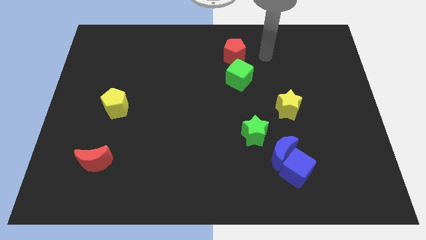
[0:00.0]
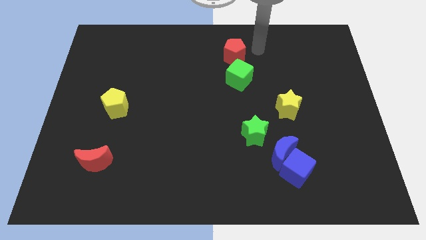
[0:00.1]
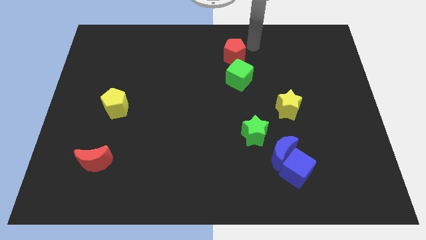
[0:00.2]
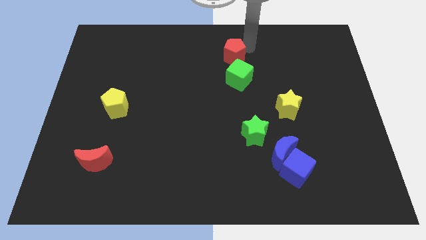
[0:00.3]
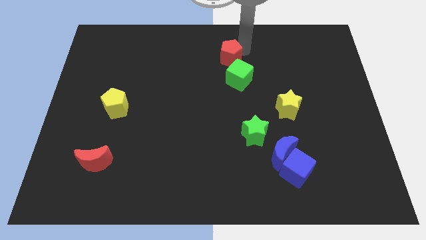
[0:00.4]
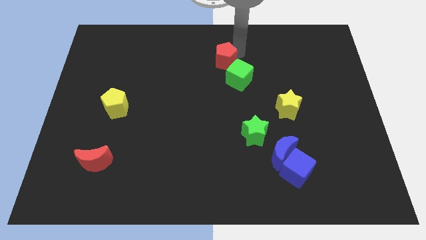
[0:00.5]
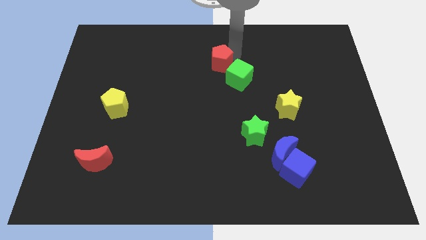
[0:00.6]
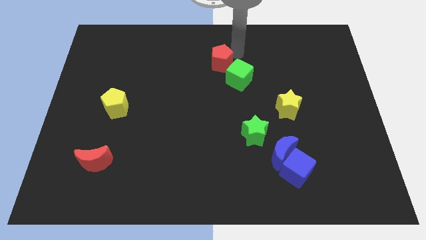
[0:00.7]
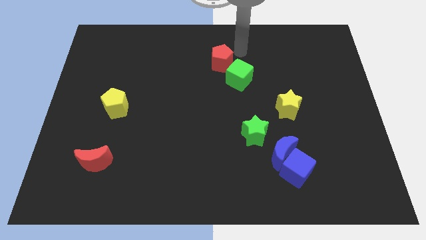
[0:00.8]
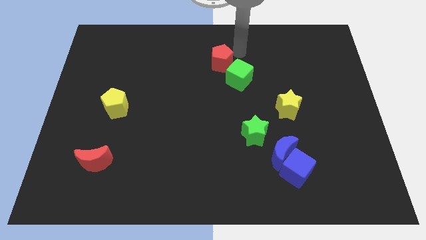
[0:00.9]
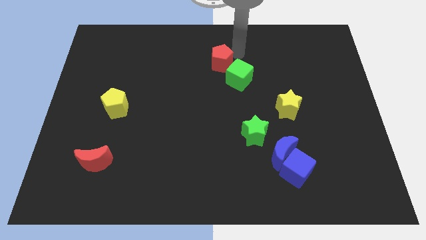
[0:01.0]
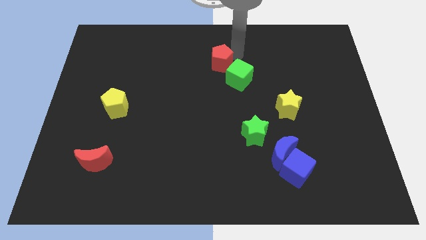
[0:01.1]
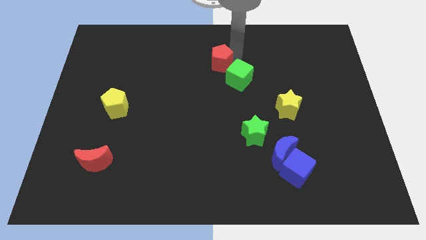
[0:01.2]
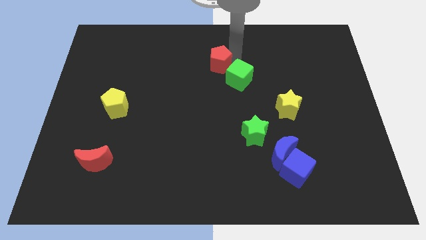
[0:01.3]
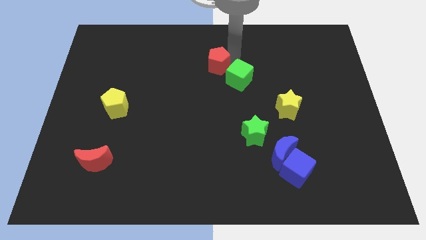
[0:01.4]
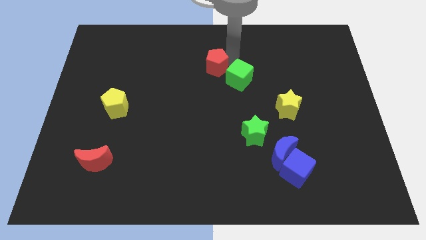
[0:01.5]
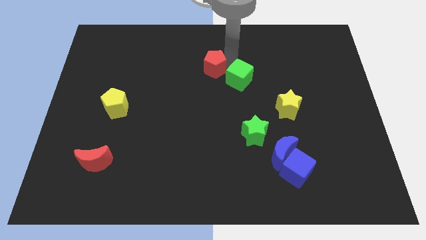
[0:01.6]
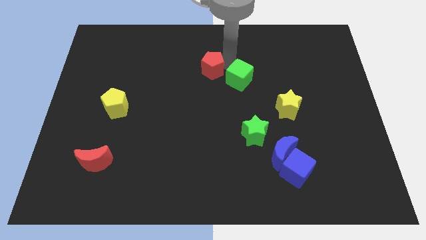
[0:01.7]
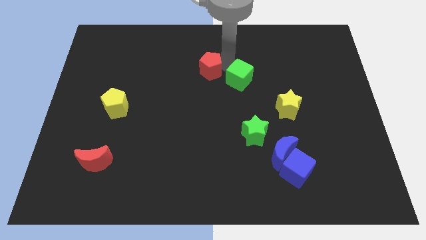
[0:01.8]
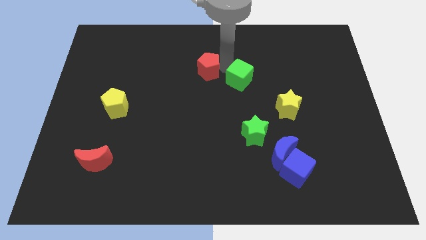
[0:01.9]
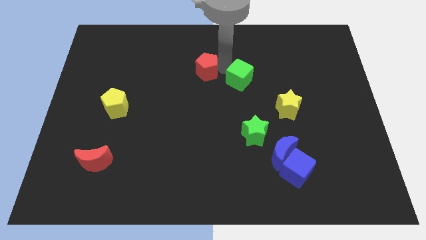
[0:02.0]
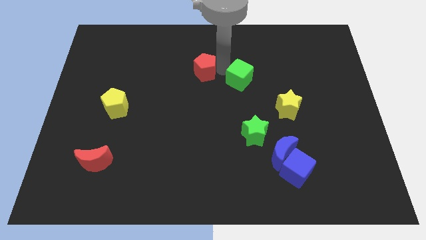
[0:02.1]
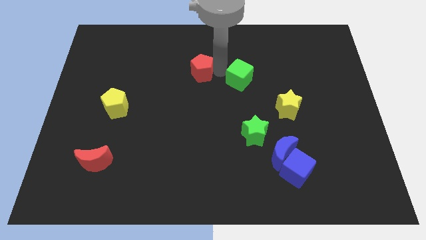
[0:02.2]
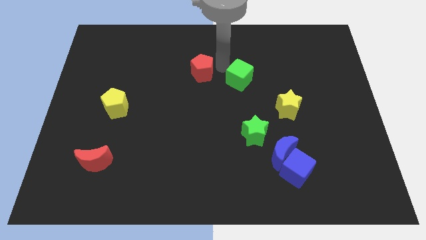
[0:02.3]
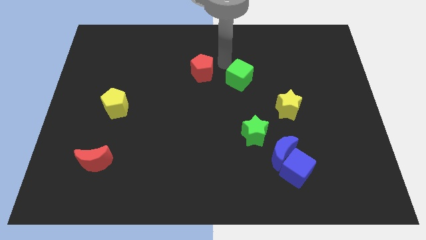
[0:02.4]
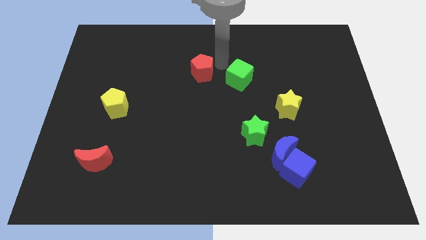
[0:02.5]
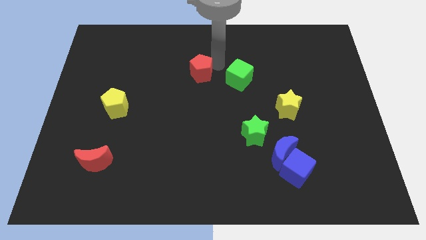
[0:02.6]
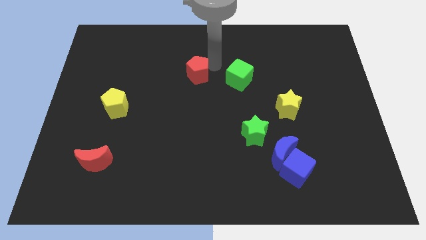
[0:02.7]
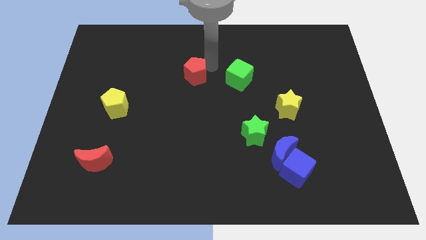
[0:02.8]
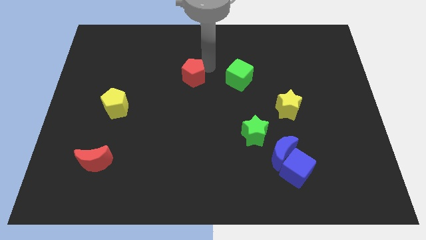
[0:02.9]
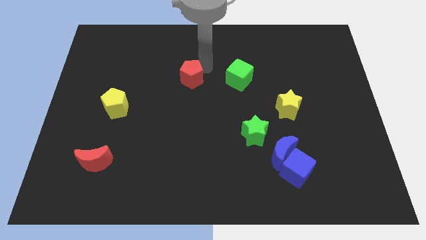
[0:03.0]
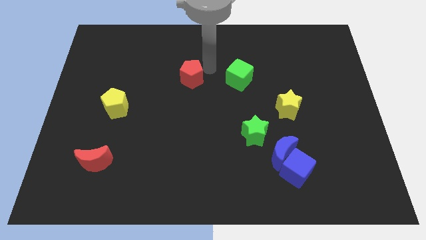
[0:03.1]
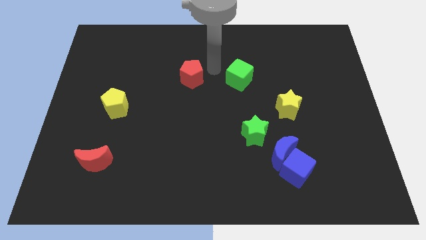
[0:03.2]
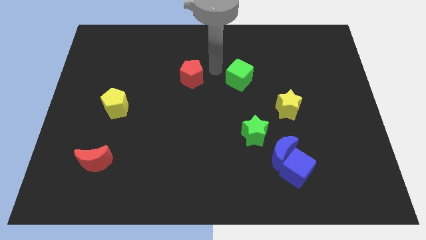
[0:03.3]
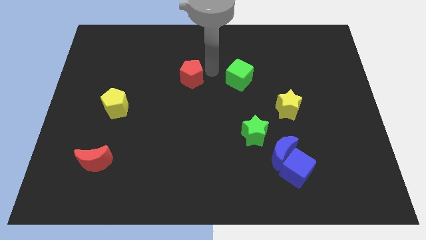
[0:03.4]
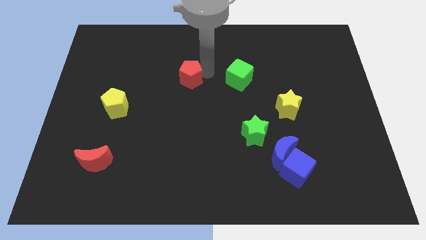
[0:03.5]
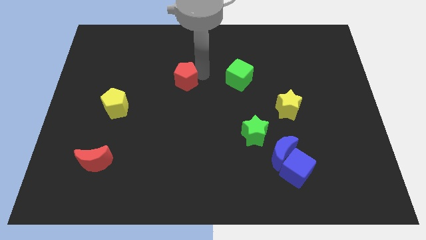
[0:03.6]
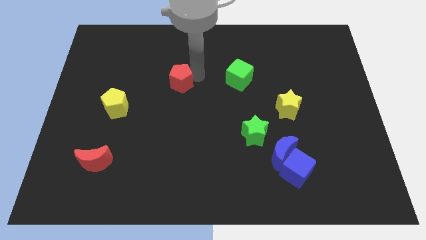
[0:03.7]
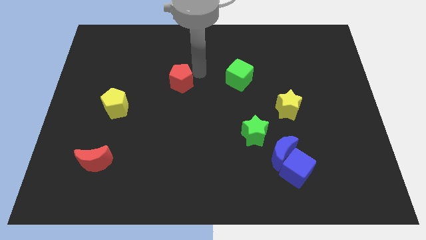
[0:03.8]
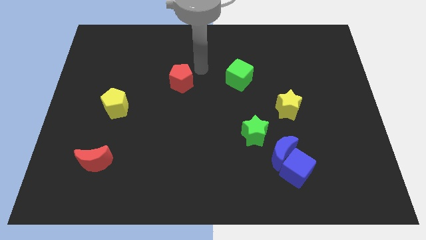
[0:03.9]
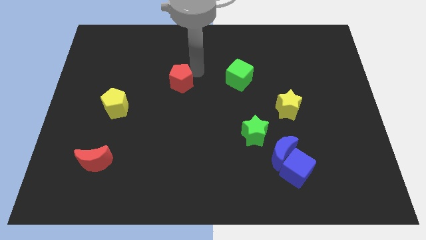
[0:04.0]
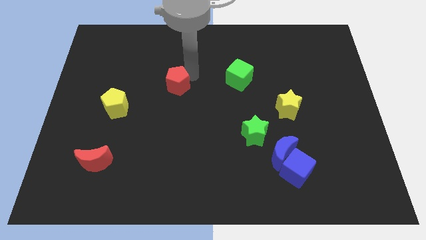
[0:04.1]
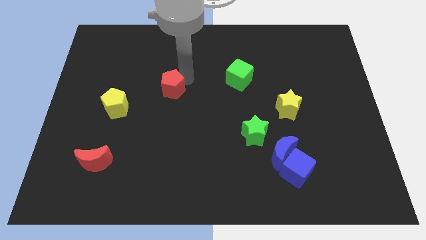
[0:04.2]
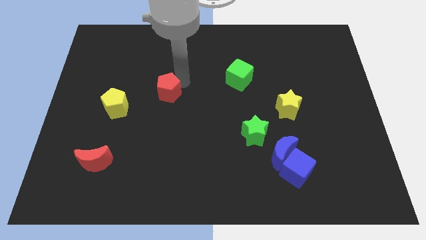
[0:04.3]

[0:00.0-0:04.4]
push the red pentagon downwards and left

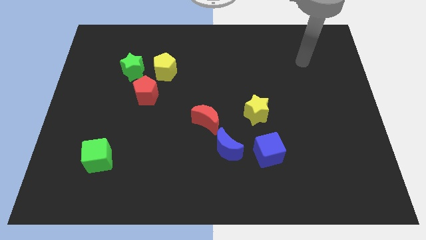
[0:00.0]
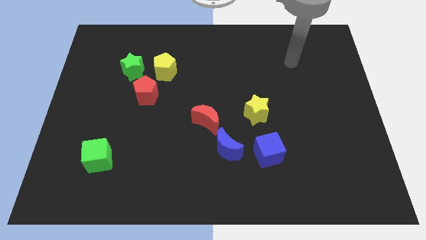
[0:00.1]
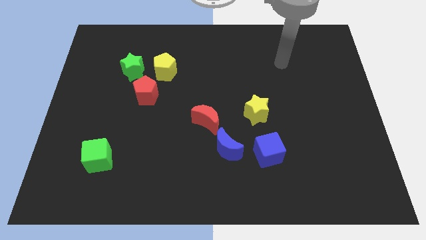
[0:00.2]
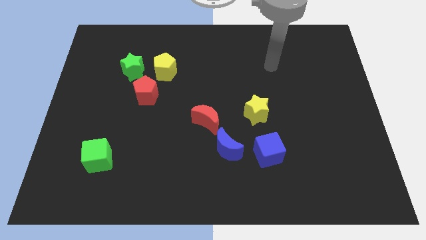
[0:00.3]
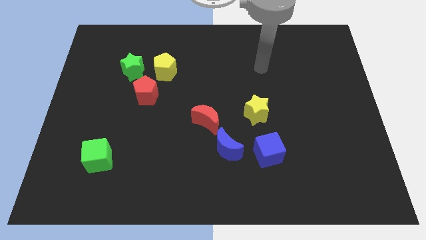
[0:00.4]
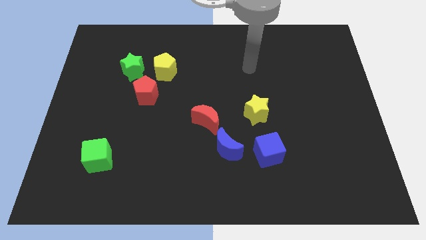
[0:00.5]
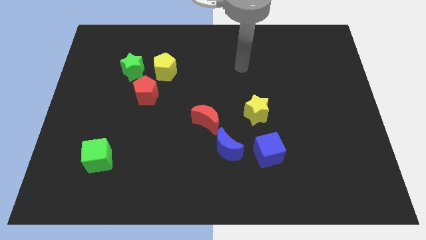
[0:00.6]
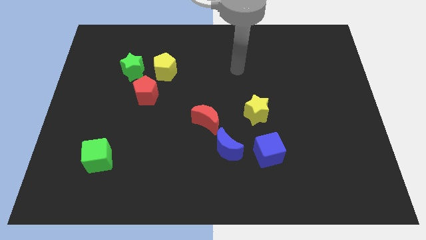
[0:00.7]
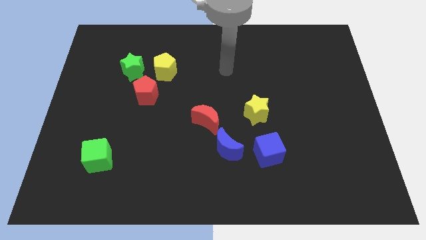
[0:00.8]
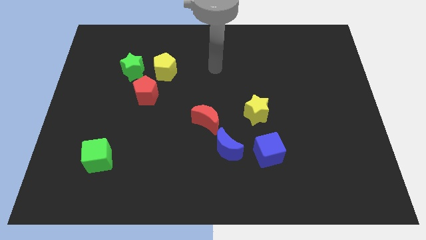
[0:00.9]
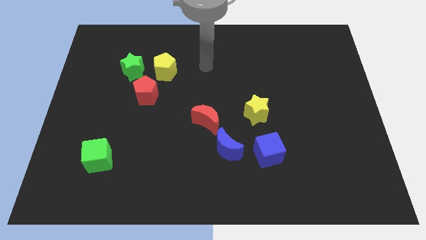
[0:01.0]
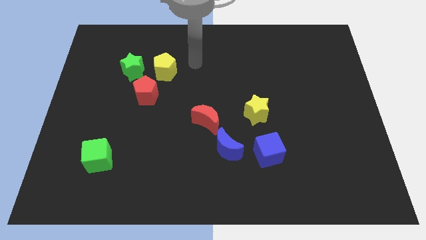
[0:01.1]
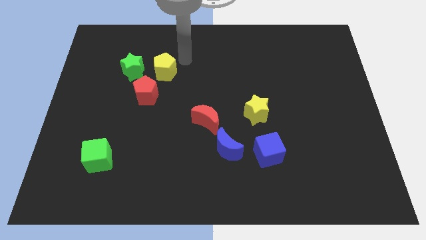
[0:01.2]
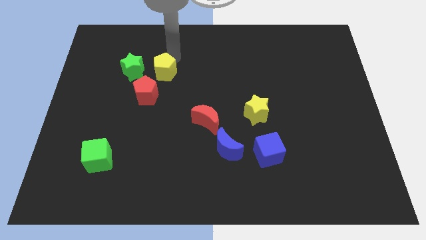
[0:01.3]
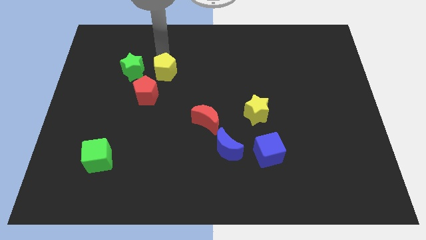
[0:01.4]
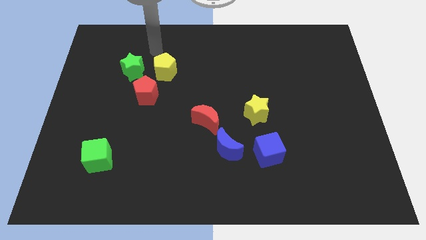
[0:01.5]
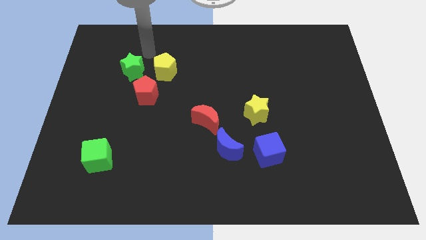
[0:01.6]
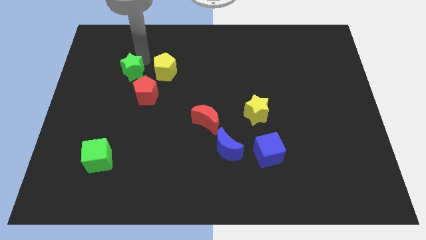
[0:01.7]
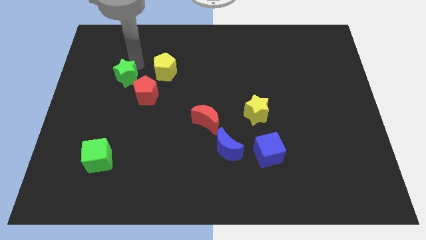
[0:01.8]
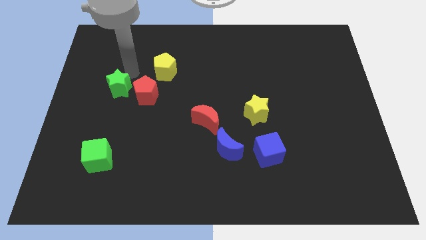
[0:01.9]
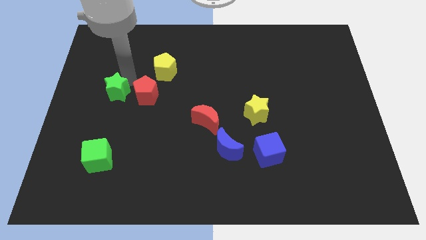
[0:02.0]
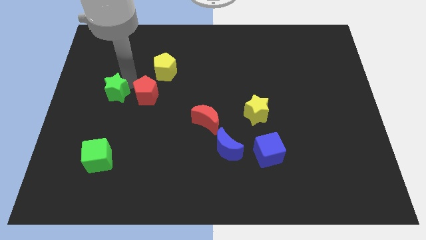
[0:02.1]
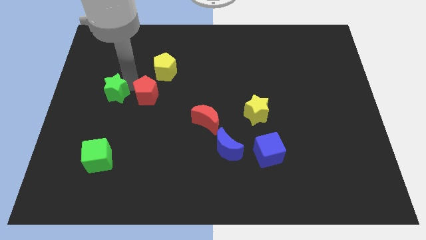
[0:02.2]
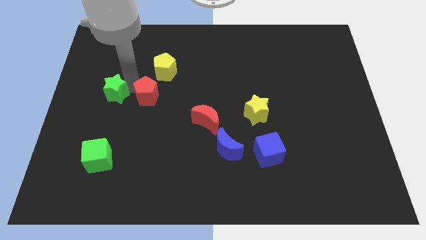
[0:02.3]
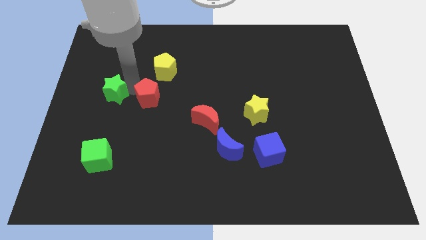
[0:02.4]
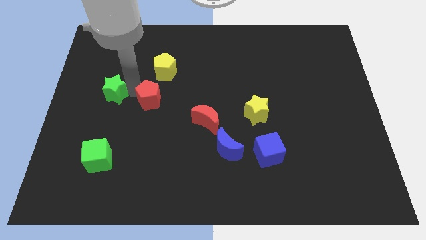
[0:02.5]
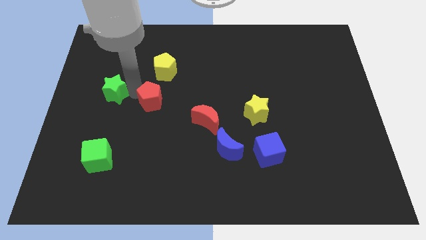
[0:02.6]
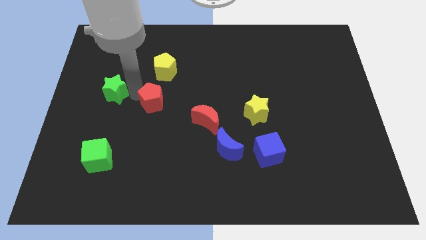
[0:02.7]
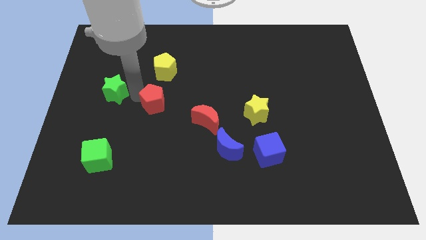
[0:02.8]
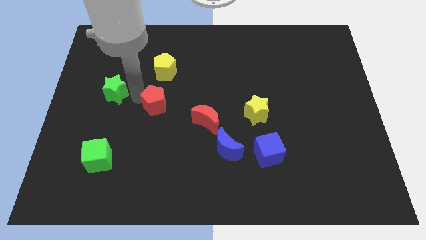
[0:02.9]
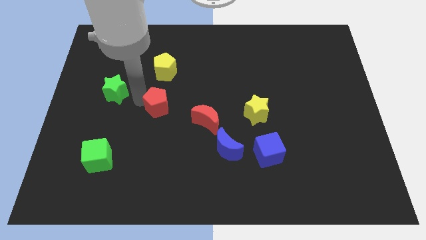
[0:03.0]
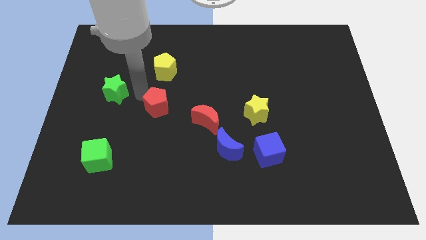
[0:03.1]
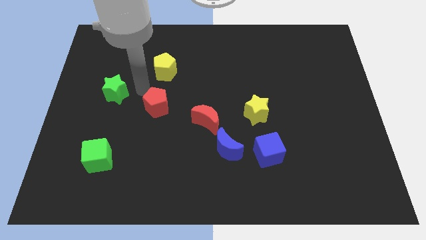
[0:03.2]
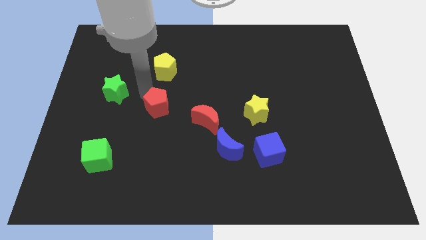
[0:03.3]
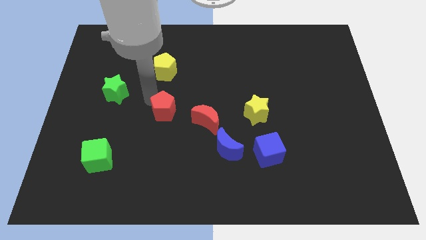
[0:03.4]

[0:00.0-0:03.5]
slide the red pentagon diagonally downwards and to the right a little

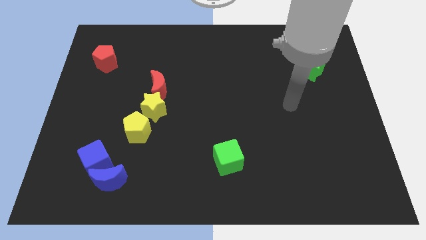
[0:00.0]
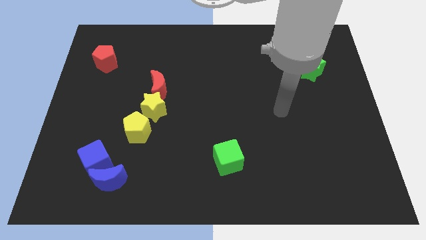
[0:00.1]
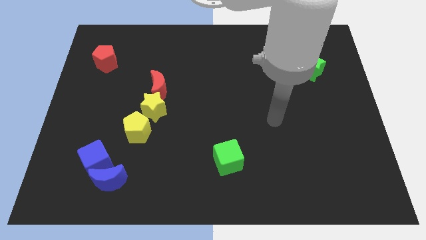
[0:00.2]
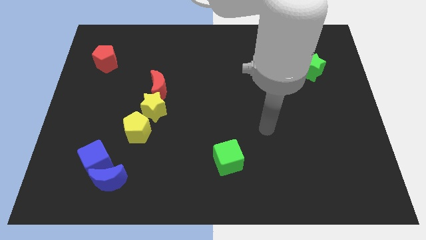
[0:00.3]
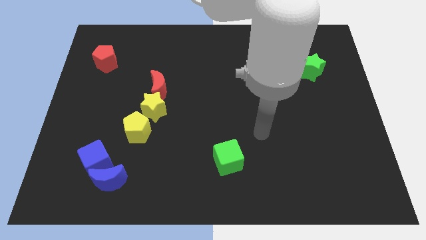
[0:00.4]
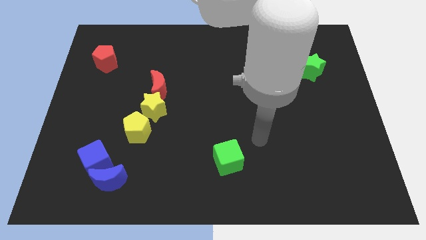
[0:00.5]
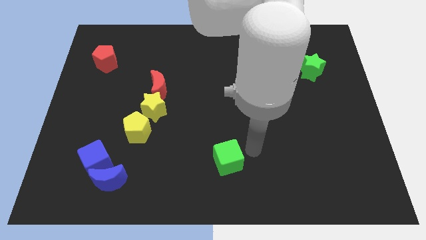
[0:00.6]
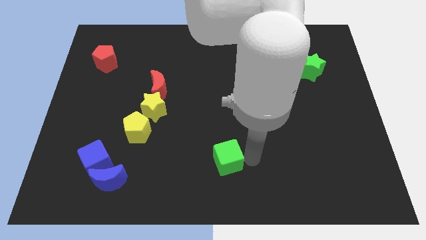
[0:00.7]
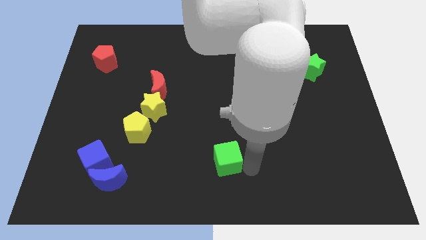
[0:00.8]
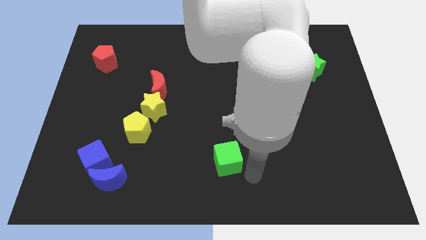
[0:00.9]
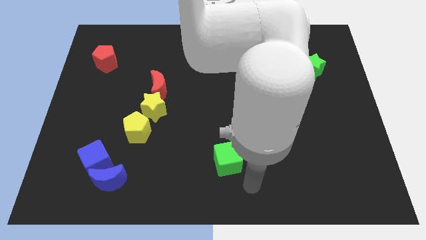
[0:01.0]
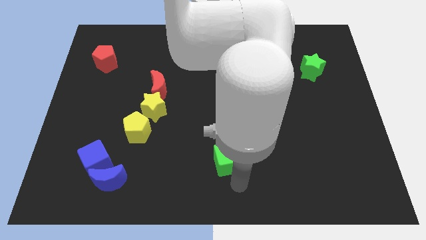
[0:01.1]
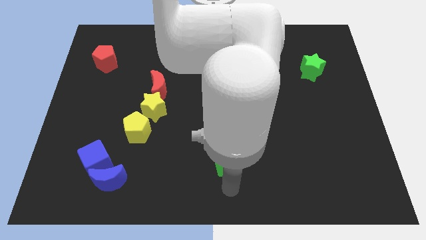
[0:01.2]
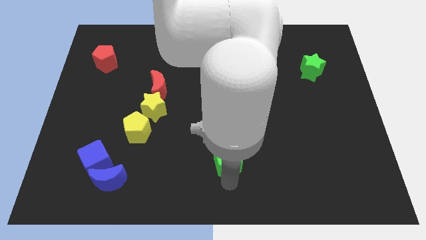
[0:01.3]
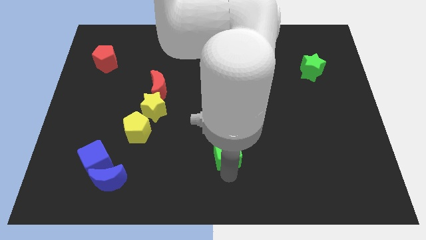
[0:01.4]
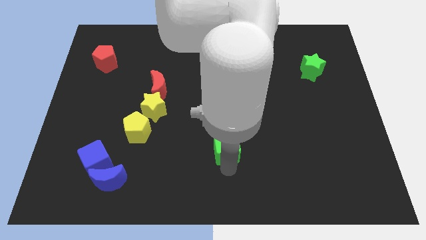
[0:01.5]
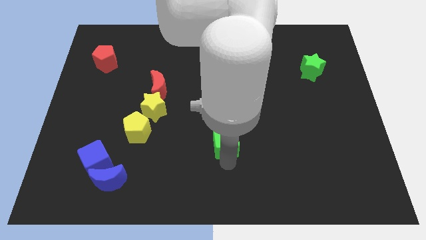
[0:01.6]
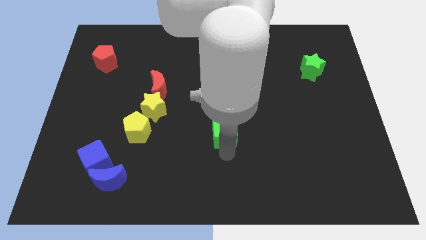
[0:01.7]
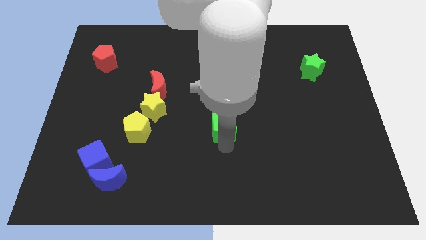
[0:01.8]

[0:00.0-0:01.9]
slightly push the green cube upwards
